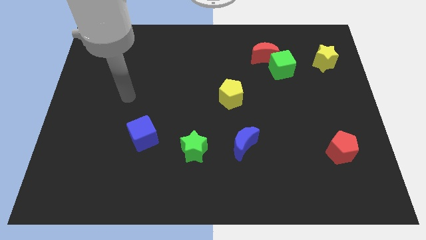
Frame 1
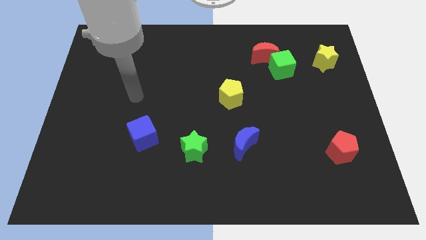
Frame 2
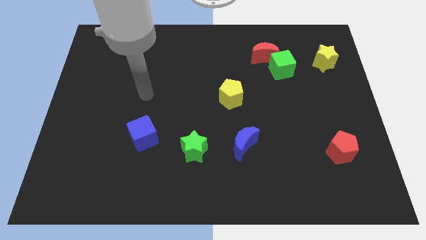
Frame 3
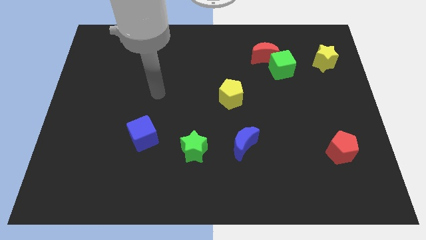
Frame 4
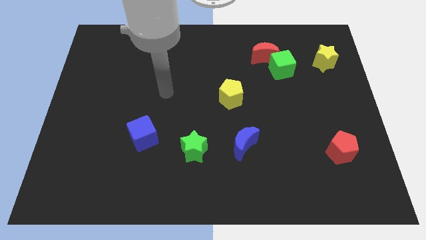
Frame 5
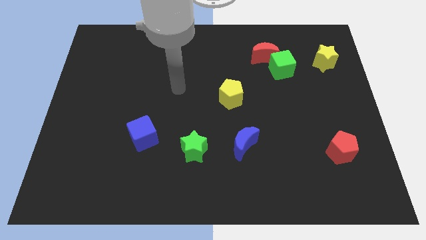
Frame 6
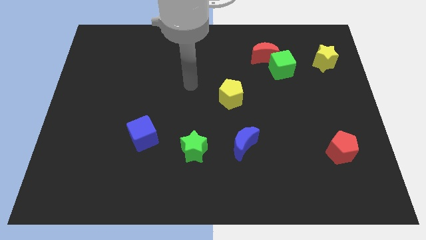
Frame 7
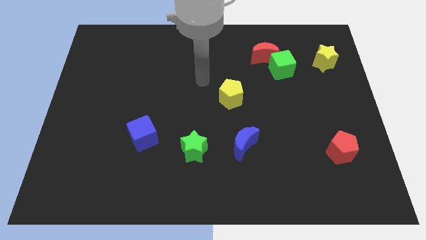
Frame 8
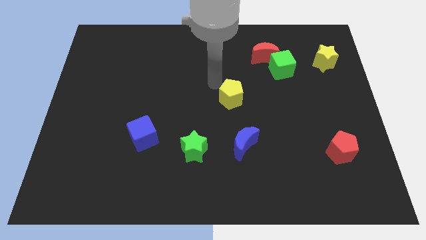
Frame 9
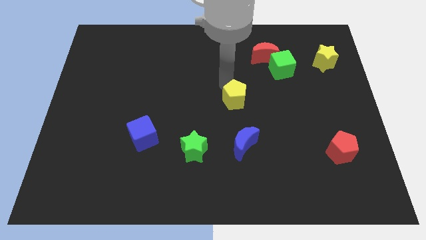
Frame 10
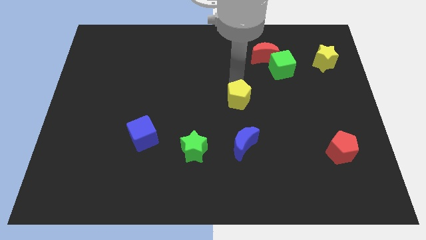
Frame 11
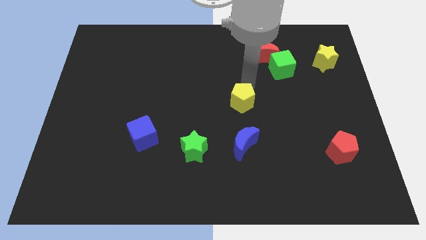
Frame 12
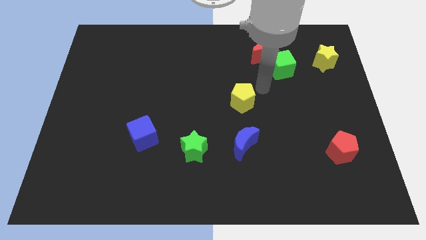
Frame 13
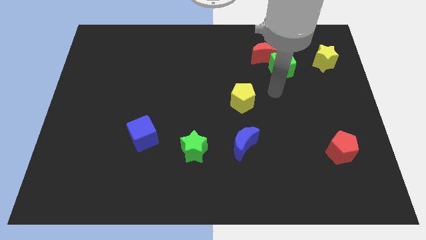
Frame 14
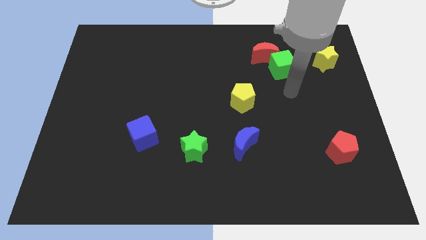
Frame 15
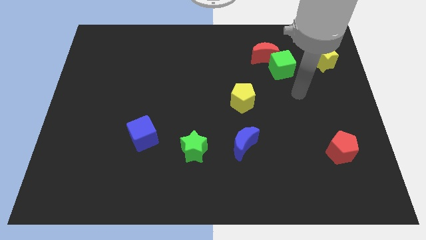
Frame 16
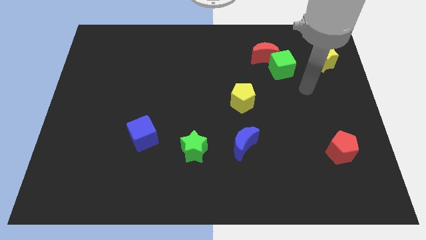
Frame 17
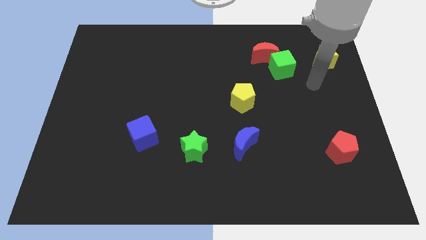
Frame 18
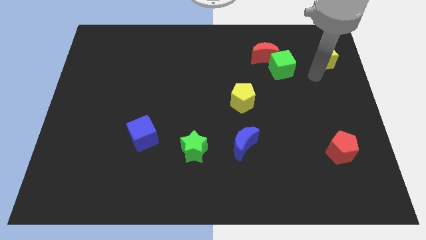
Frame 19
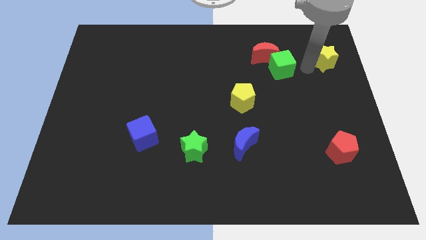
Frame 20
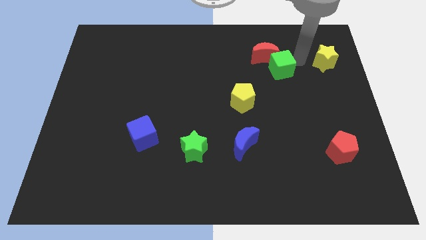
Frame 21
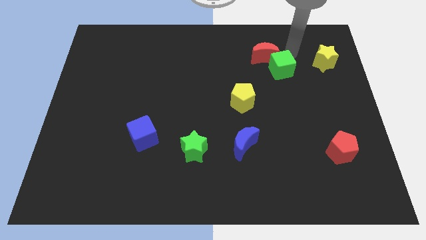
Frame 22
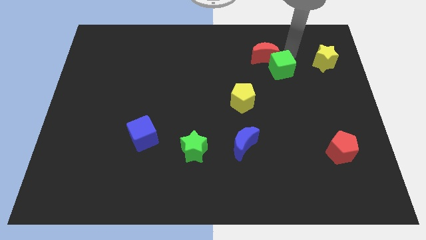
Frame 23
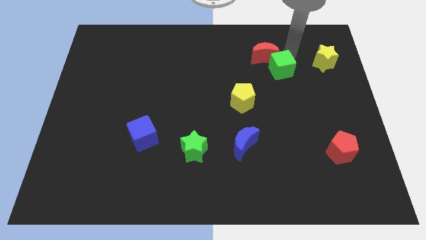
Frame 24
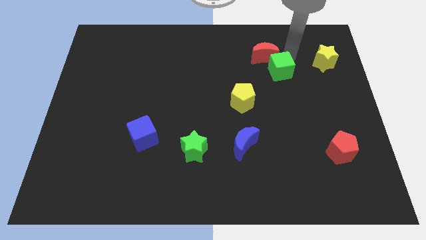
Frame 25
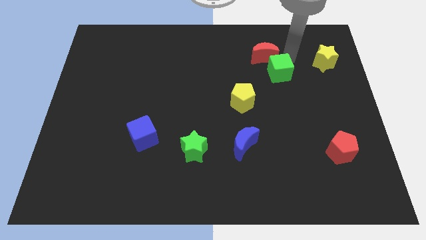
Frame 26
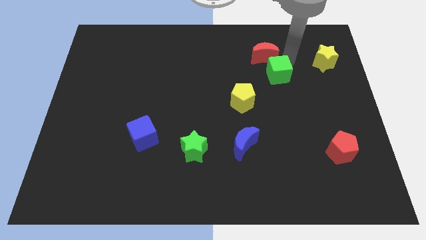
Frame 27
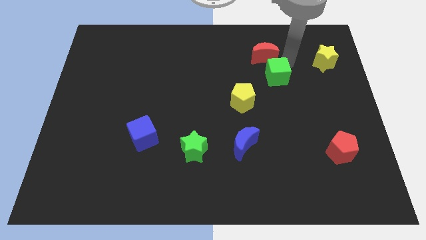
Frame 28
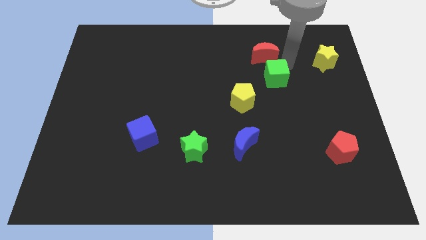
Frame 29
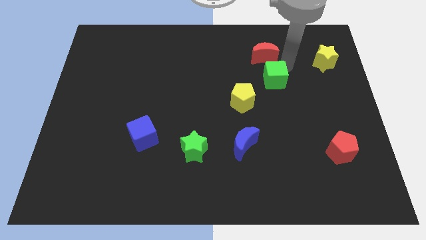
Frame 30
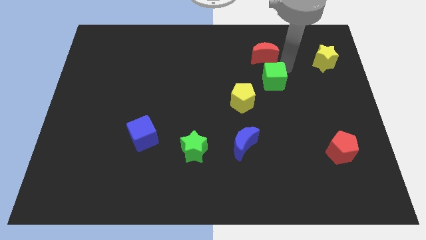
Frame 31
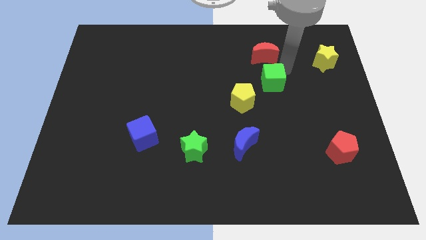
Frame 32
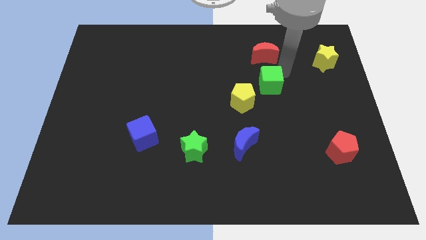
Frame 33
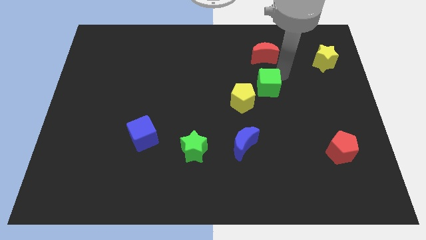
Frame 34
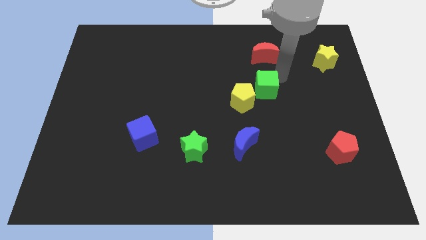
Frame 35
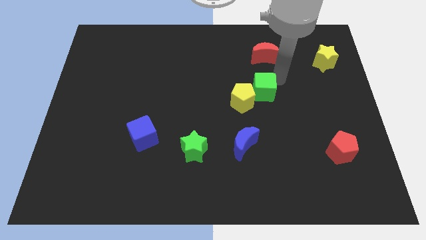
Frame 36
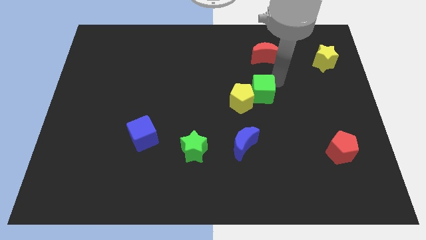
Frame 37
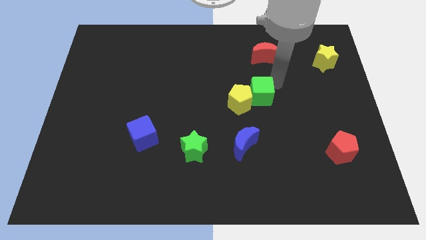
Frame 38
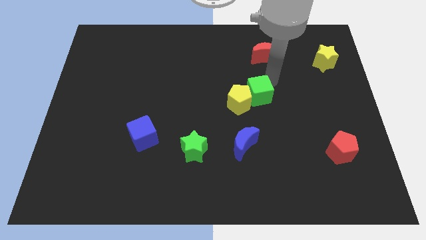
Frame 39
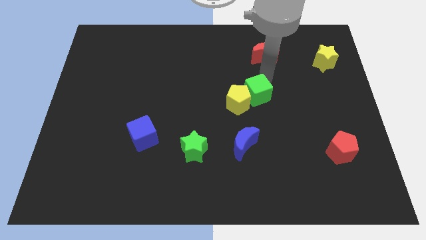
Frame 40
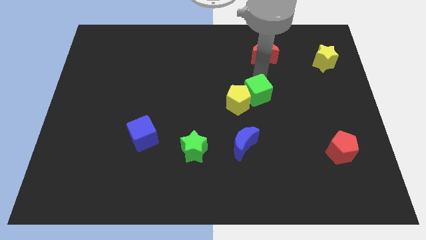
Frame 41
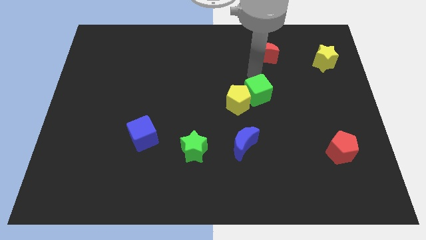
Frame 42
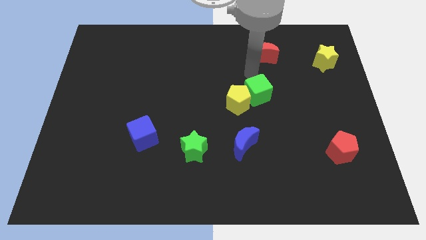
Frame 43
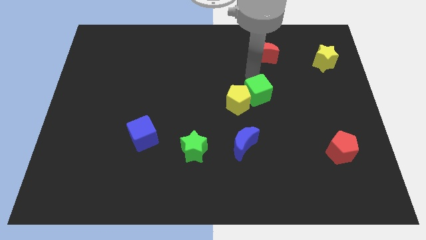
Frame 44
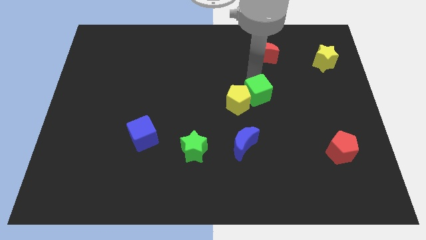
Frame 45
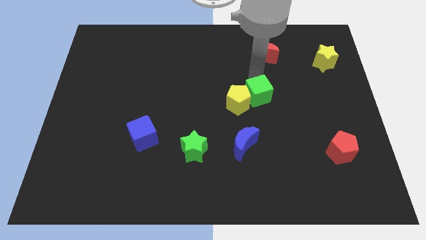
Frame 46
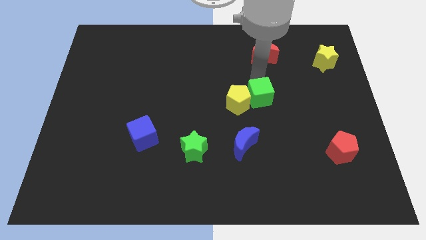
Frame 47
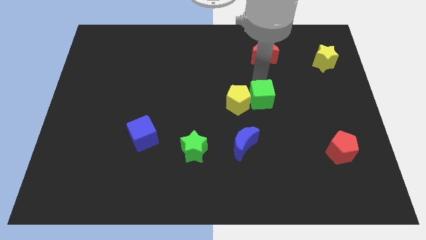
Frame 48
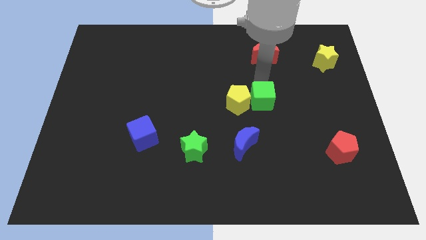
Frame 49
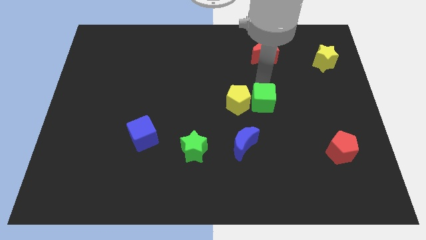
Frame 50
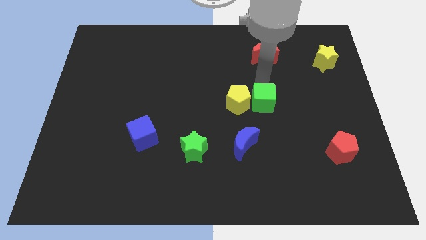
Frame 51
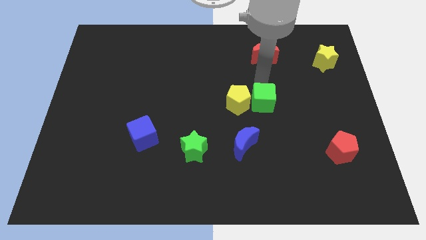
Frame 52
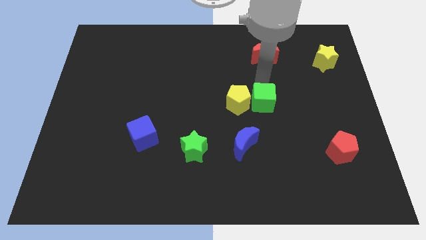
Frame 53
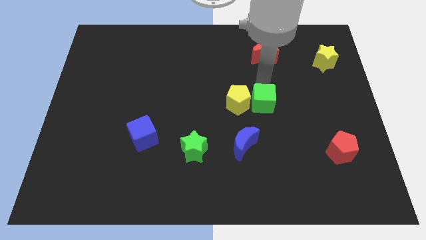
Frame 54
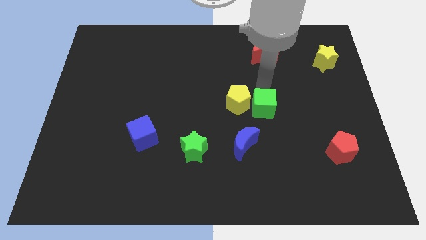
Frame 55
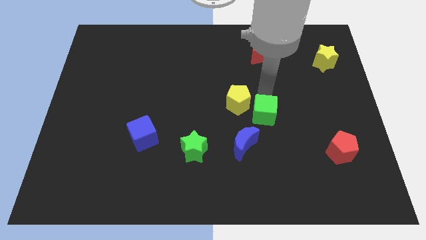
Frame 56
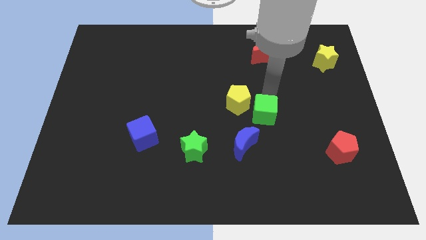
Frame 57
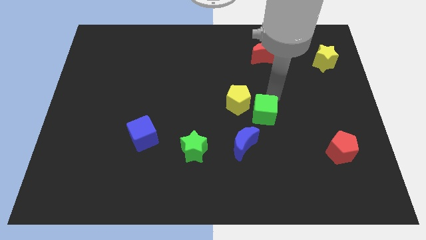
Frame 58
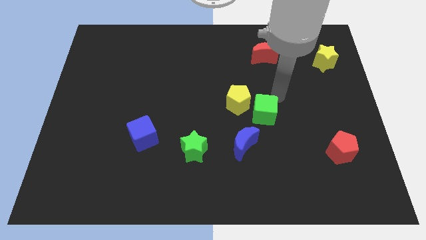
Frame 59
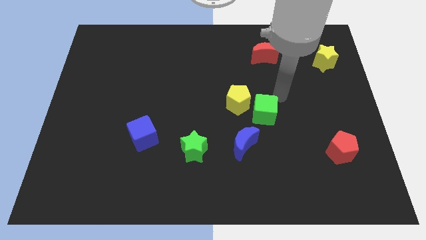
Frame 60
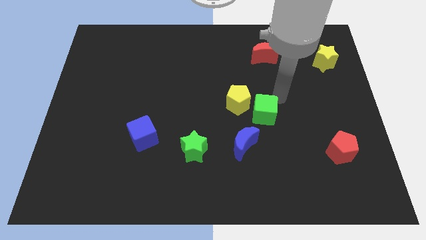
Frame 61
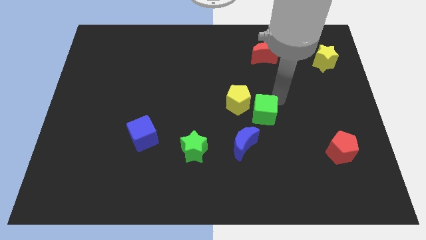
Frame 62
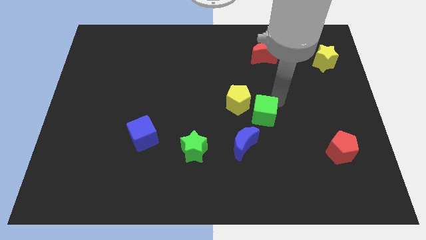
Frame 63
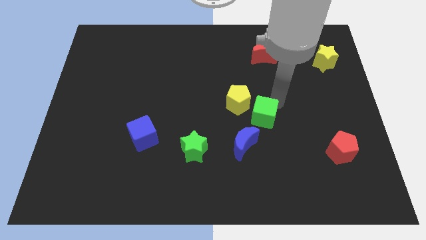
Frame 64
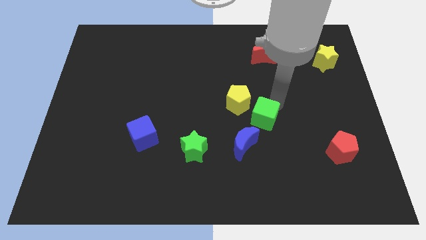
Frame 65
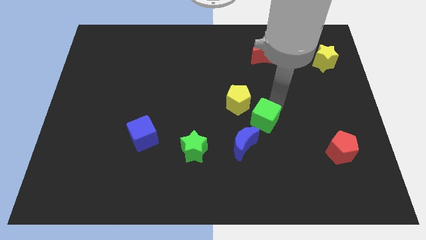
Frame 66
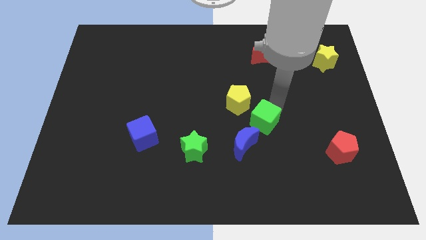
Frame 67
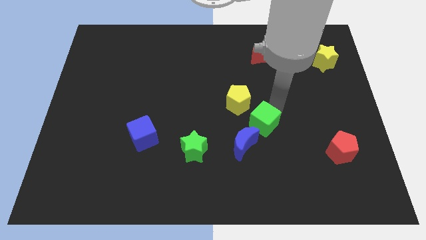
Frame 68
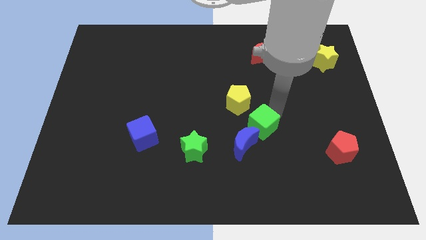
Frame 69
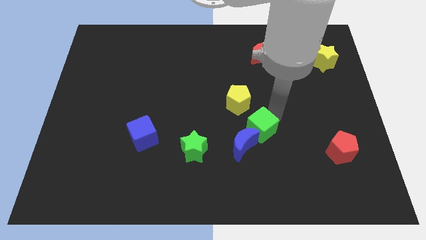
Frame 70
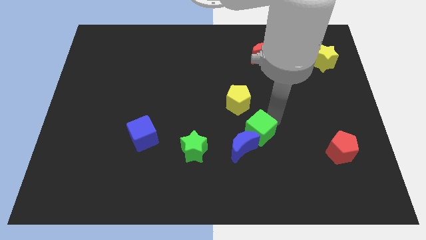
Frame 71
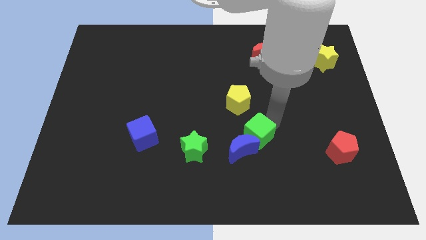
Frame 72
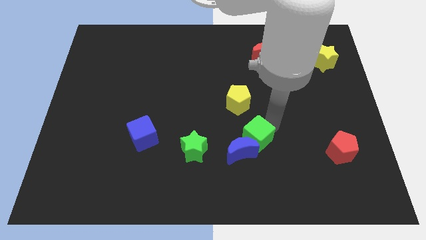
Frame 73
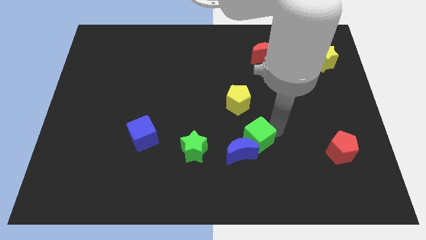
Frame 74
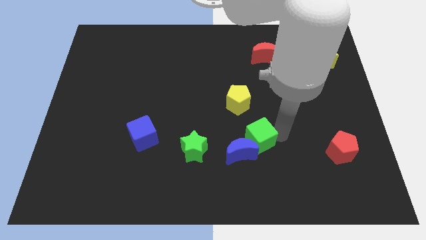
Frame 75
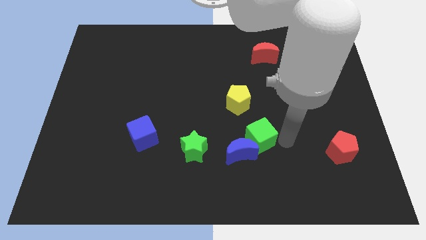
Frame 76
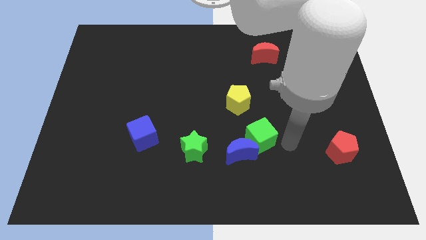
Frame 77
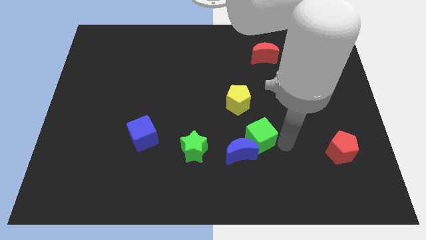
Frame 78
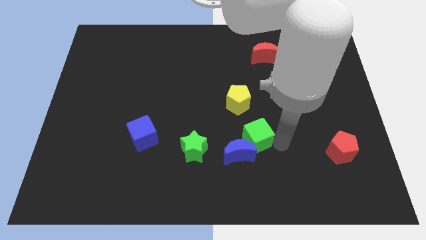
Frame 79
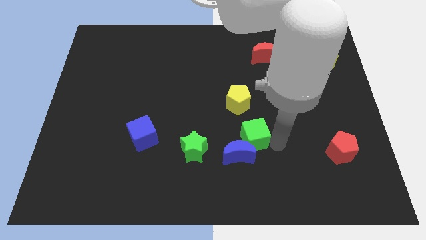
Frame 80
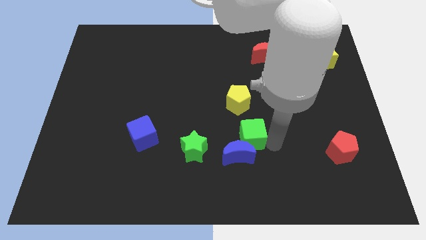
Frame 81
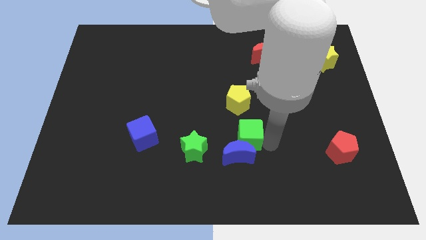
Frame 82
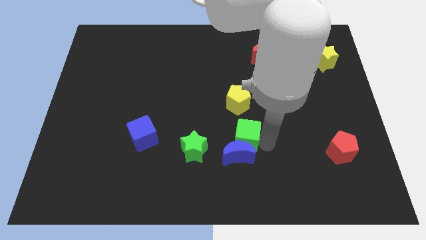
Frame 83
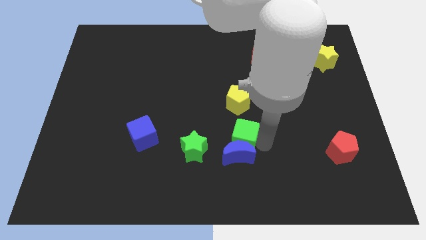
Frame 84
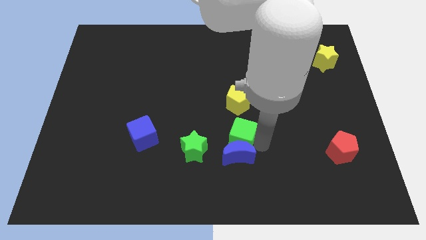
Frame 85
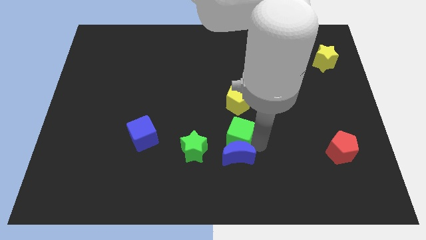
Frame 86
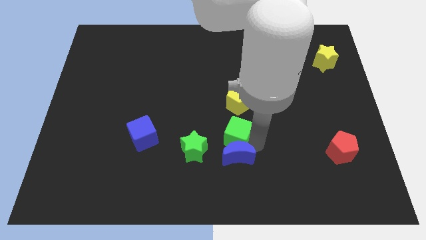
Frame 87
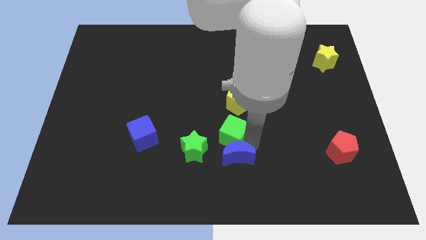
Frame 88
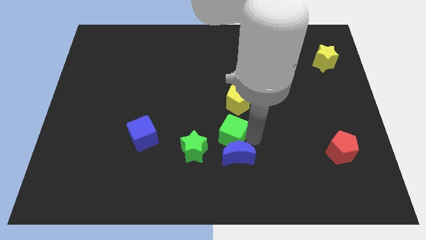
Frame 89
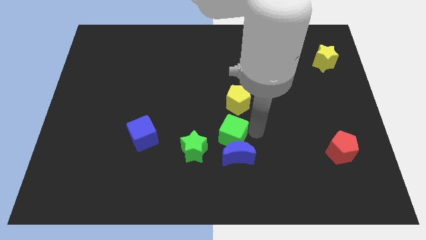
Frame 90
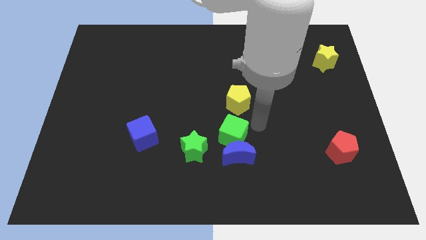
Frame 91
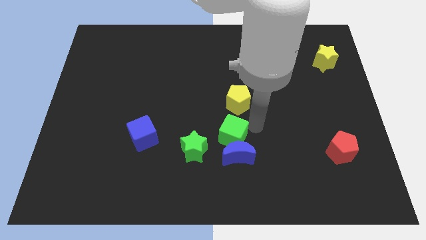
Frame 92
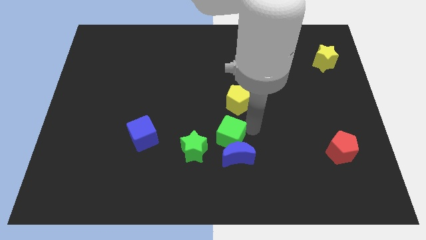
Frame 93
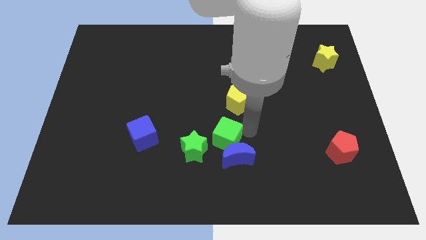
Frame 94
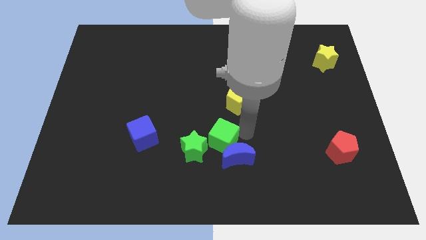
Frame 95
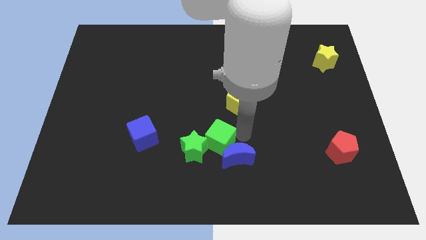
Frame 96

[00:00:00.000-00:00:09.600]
slide the green cube next to the green star
